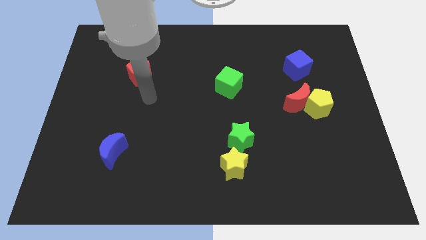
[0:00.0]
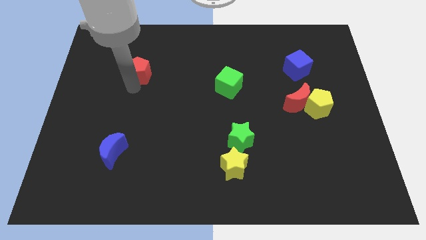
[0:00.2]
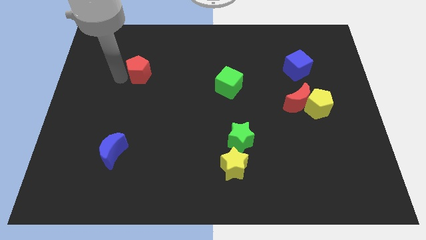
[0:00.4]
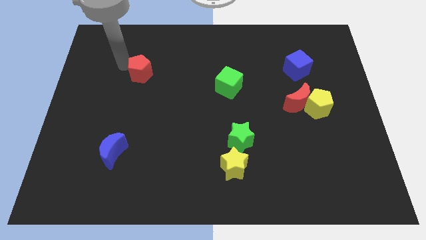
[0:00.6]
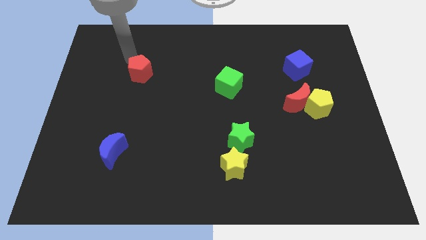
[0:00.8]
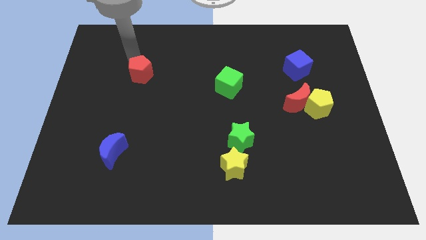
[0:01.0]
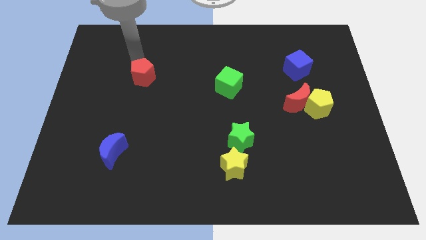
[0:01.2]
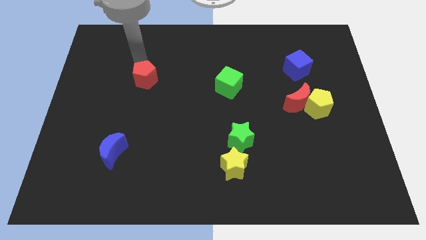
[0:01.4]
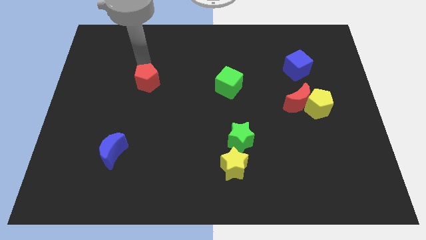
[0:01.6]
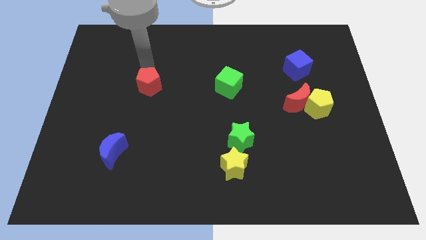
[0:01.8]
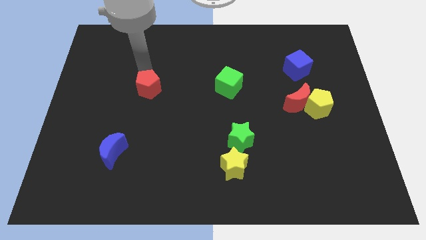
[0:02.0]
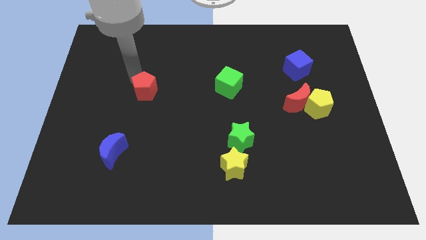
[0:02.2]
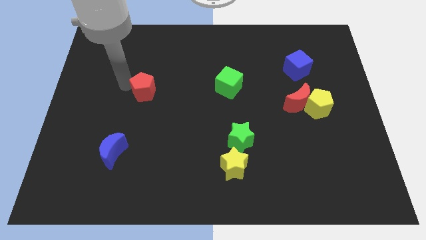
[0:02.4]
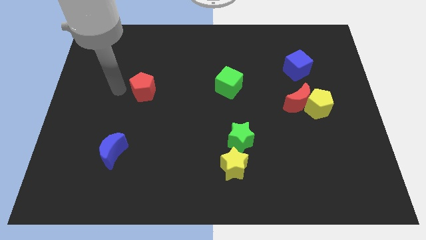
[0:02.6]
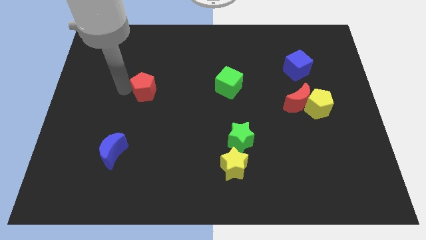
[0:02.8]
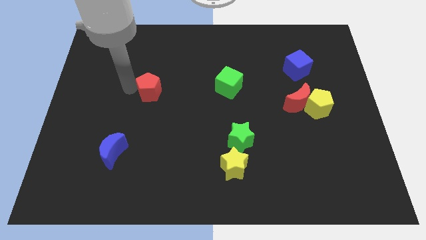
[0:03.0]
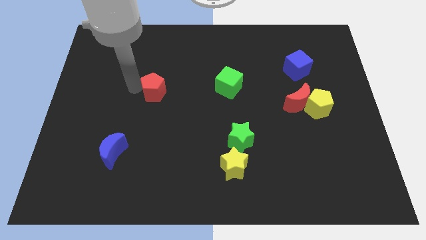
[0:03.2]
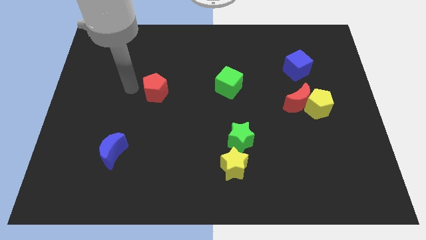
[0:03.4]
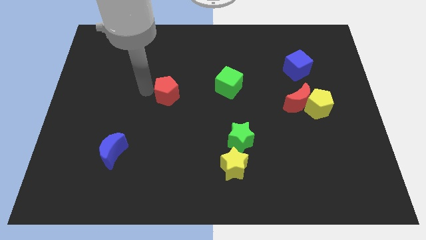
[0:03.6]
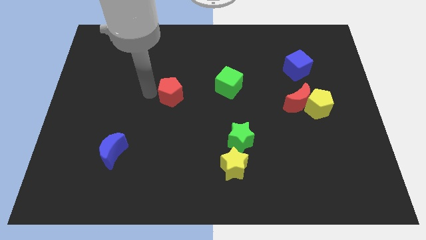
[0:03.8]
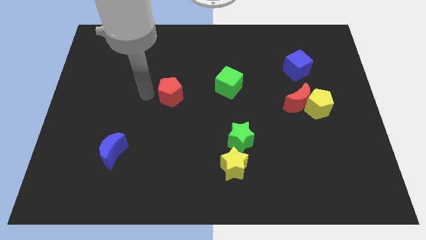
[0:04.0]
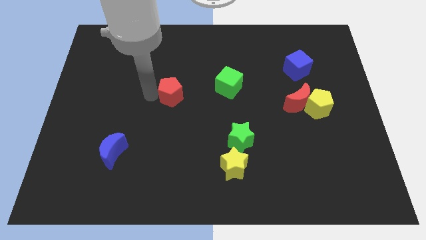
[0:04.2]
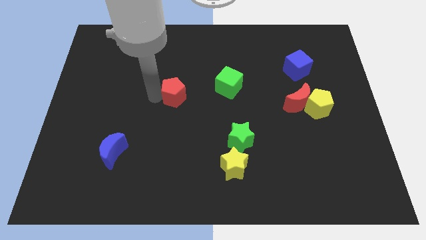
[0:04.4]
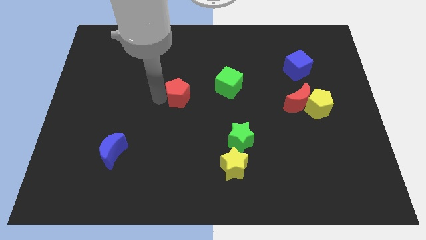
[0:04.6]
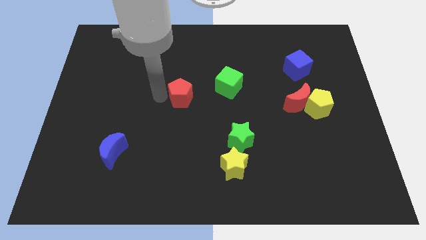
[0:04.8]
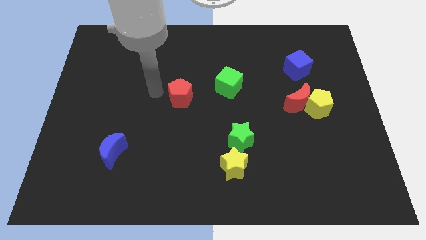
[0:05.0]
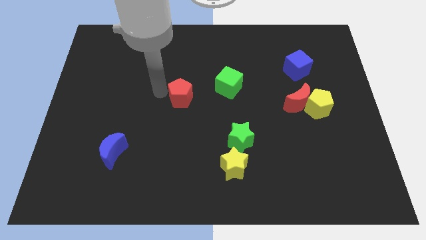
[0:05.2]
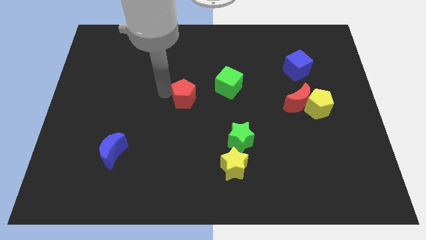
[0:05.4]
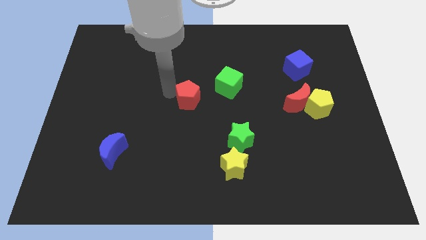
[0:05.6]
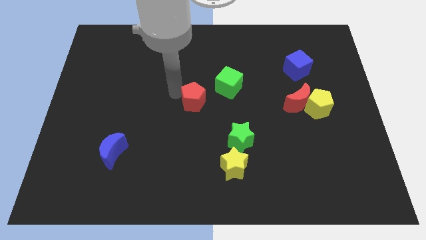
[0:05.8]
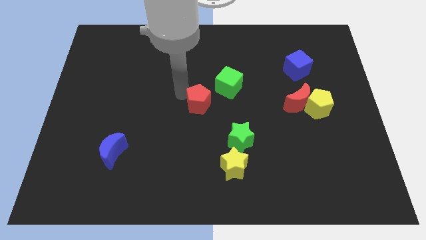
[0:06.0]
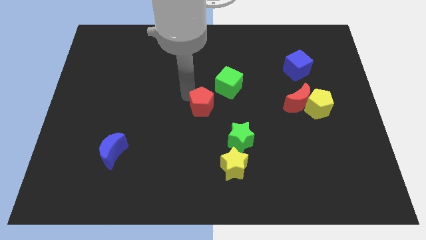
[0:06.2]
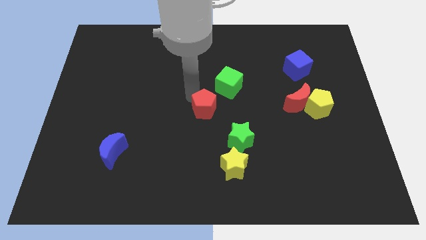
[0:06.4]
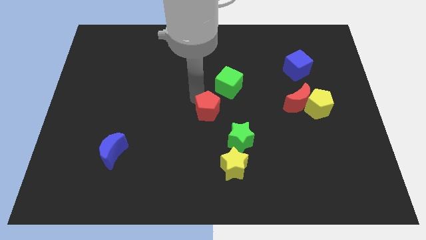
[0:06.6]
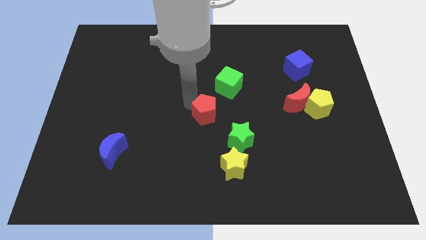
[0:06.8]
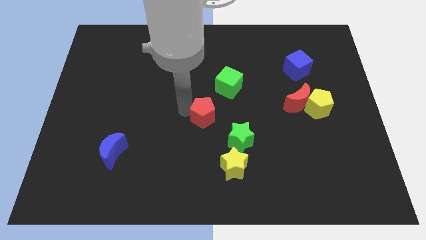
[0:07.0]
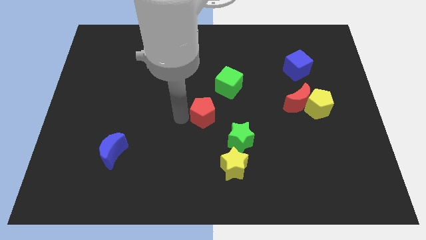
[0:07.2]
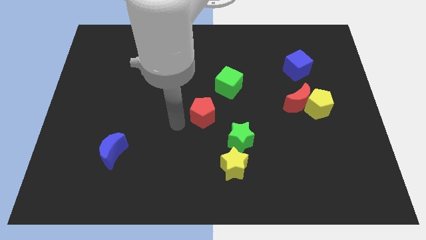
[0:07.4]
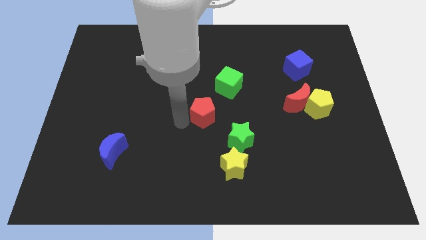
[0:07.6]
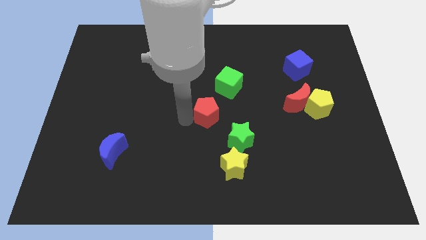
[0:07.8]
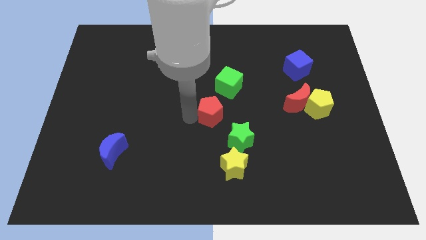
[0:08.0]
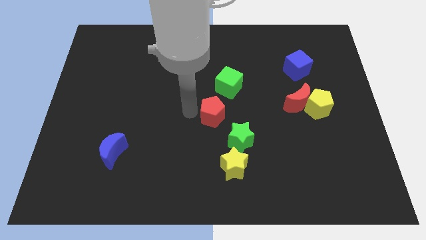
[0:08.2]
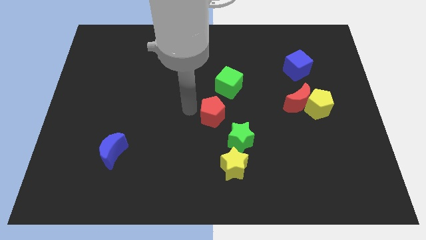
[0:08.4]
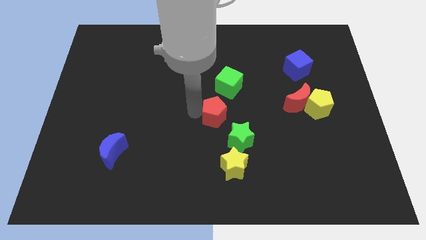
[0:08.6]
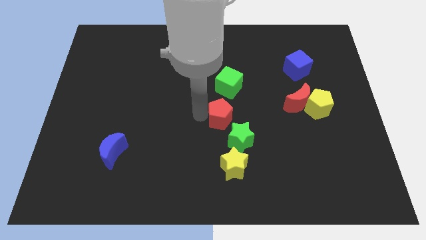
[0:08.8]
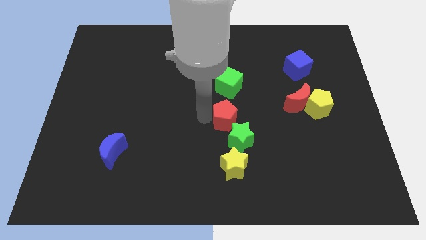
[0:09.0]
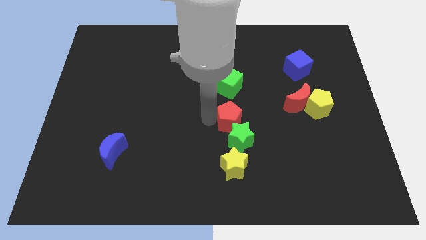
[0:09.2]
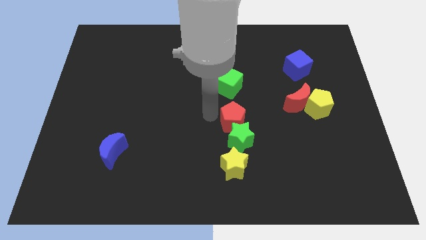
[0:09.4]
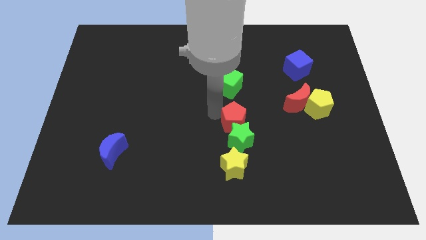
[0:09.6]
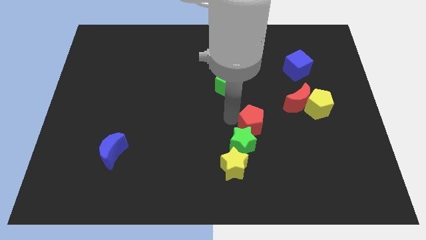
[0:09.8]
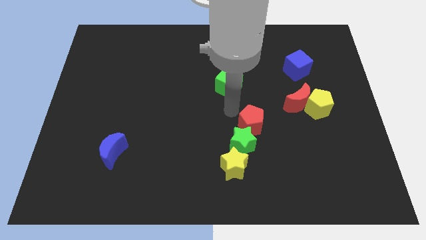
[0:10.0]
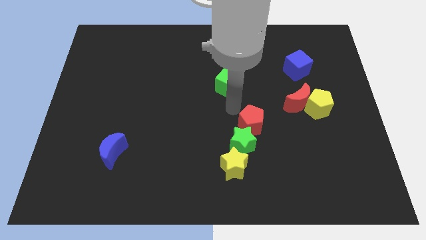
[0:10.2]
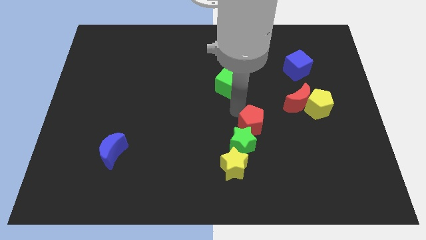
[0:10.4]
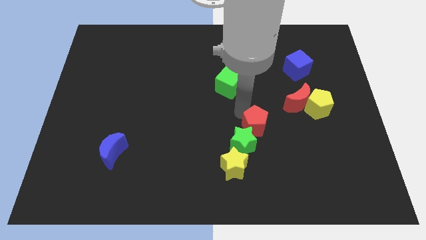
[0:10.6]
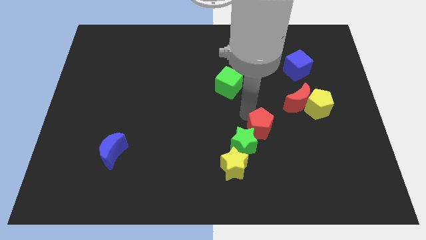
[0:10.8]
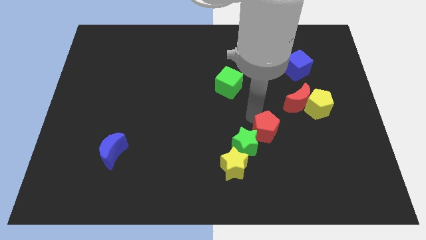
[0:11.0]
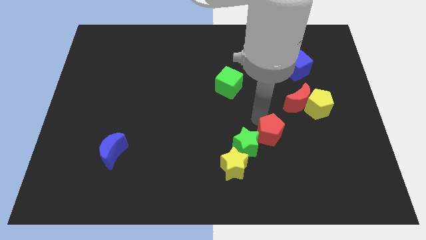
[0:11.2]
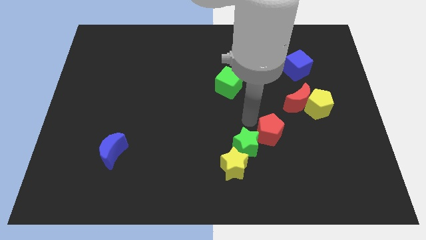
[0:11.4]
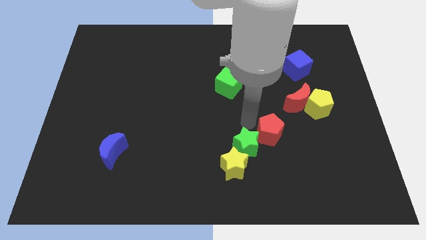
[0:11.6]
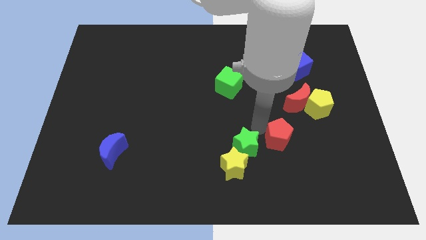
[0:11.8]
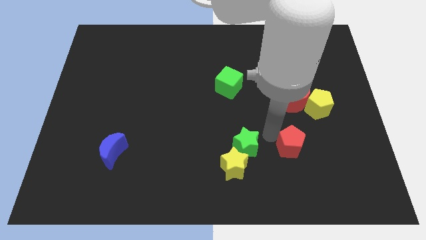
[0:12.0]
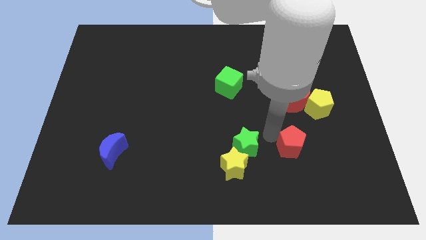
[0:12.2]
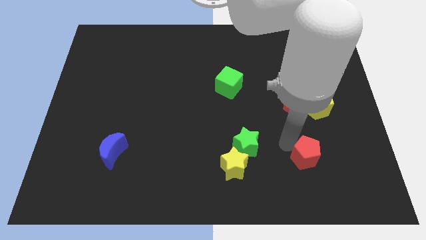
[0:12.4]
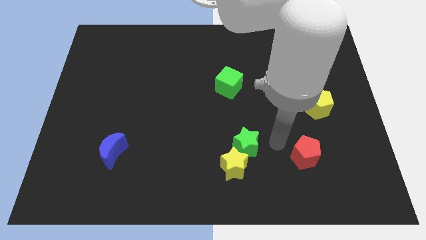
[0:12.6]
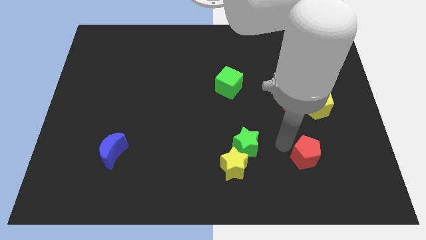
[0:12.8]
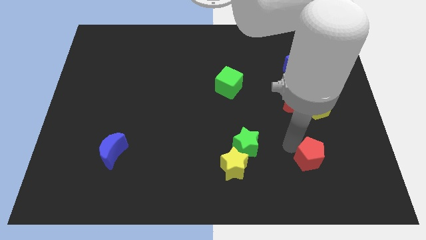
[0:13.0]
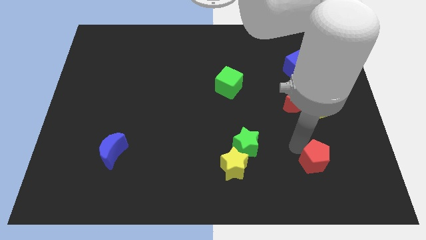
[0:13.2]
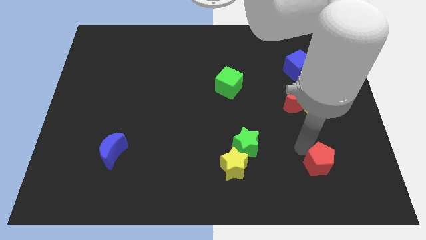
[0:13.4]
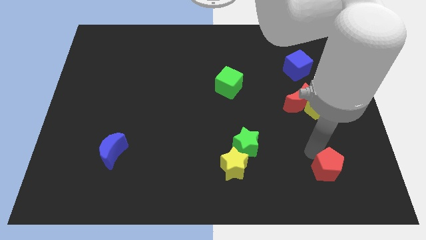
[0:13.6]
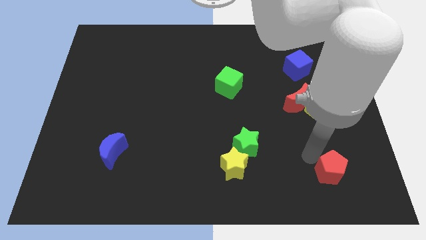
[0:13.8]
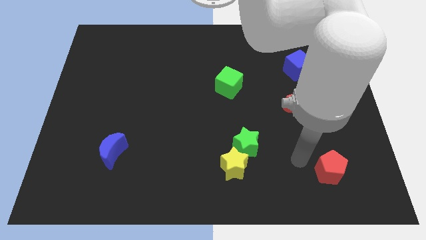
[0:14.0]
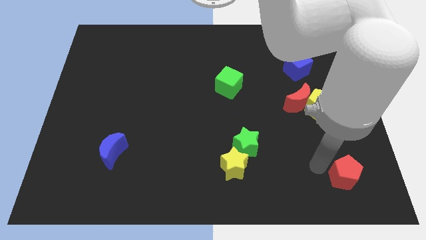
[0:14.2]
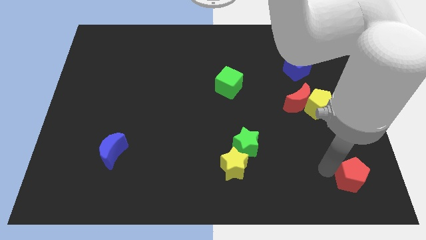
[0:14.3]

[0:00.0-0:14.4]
push the red pentagon to the lower right corner
